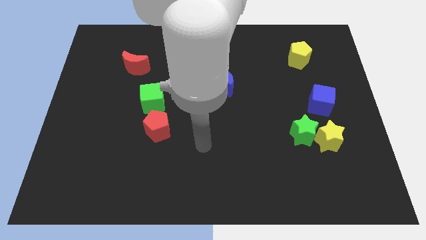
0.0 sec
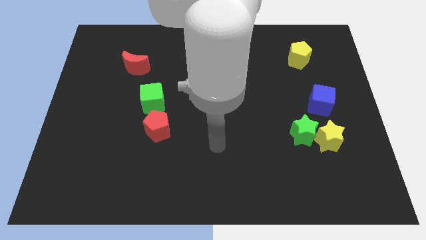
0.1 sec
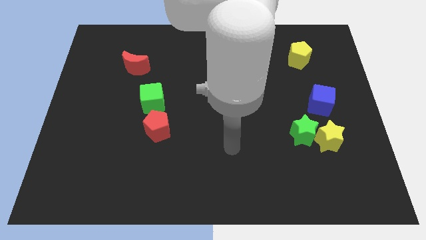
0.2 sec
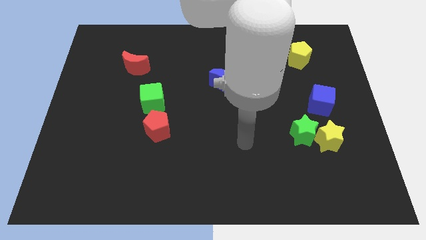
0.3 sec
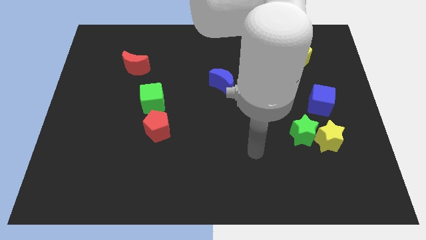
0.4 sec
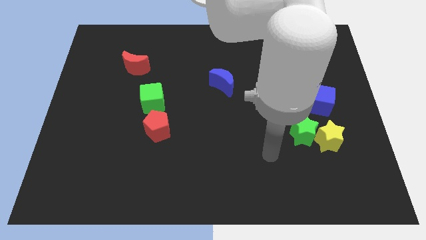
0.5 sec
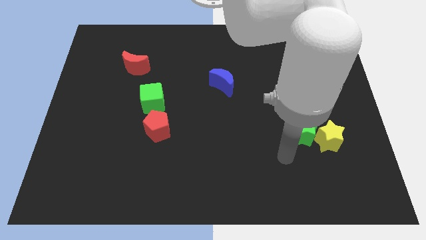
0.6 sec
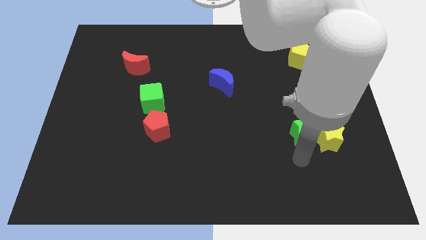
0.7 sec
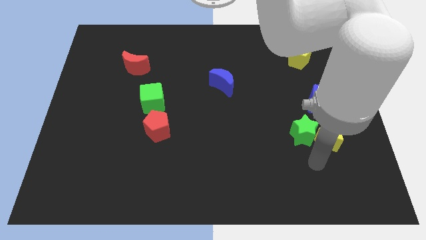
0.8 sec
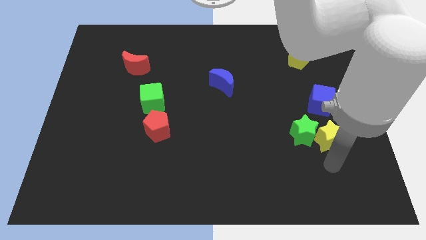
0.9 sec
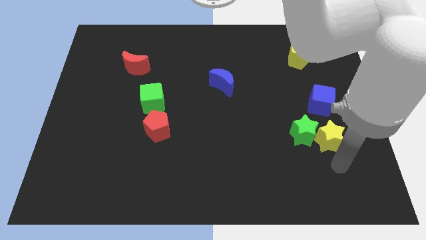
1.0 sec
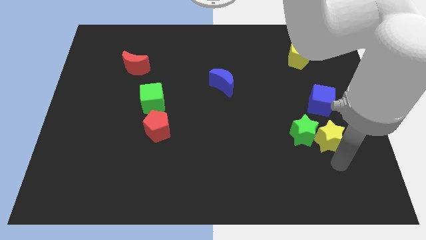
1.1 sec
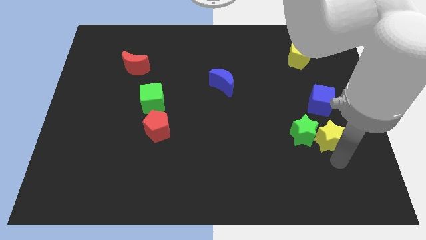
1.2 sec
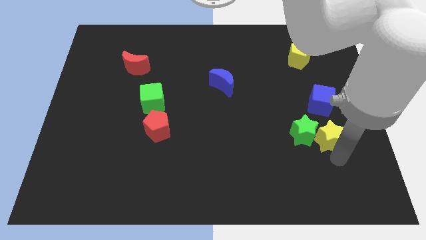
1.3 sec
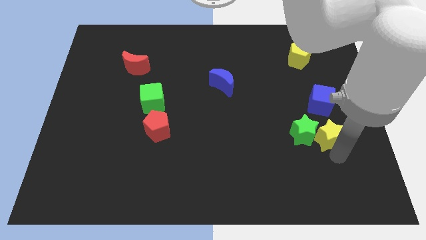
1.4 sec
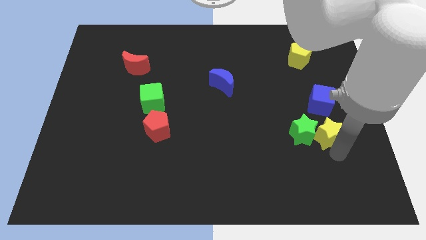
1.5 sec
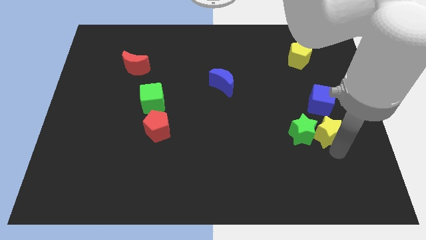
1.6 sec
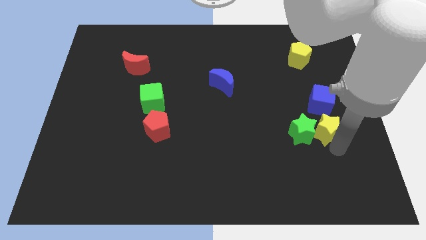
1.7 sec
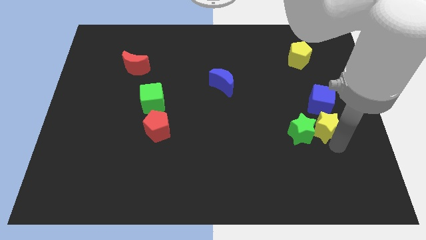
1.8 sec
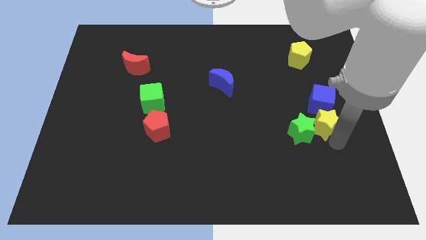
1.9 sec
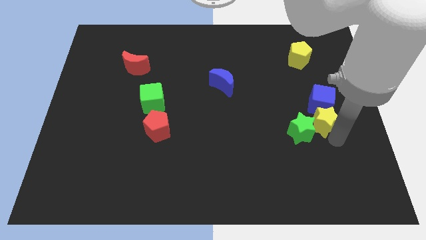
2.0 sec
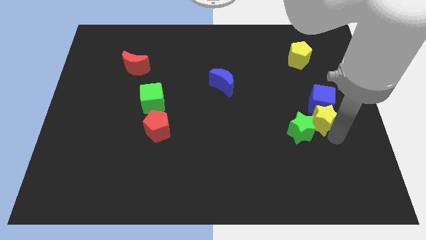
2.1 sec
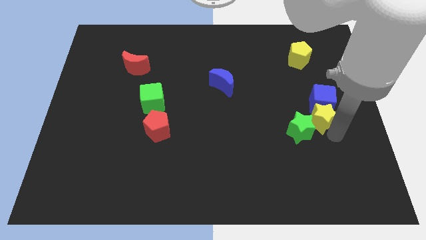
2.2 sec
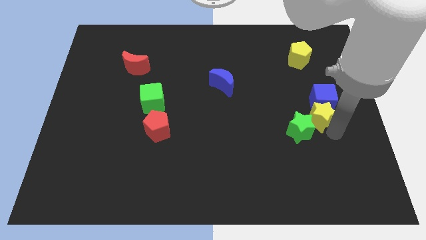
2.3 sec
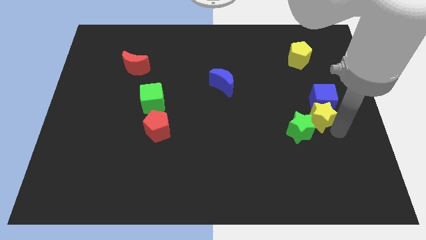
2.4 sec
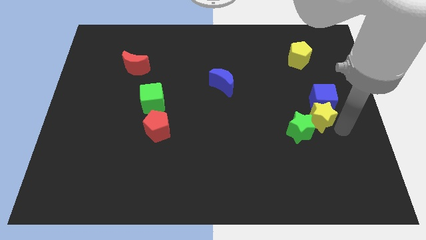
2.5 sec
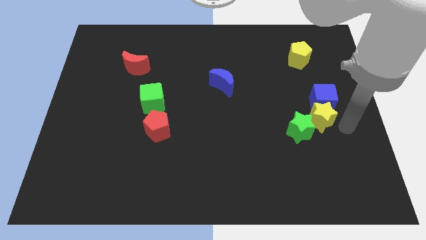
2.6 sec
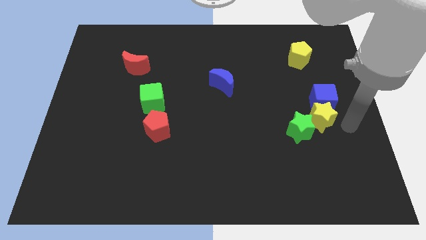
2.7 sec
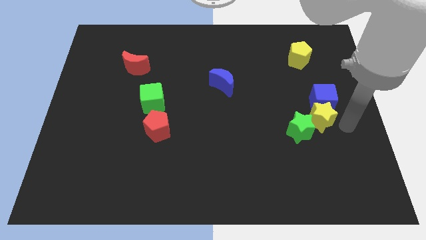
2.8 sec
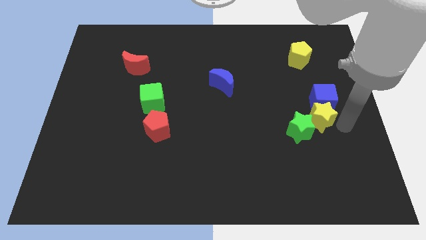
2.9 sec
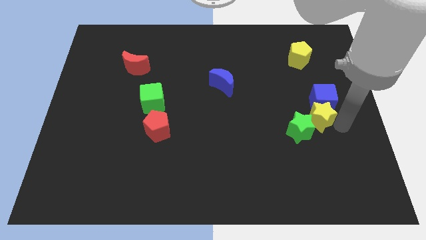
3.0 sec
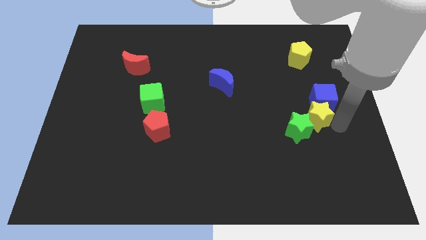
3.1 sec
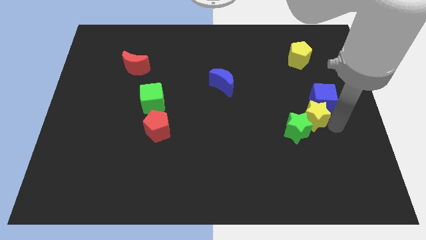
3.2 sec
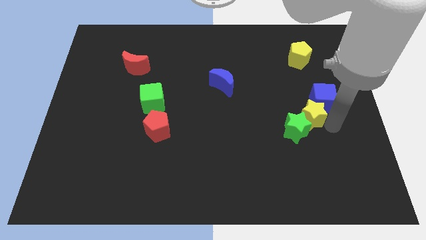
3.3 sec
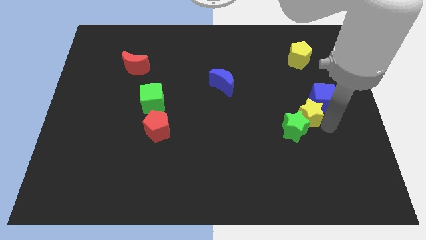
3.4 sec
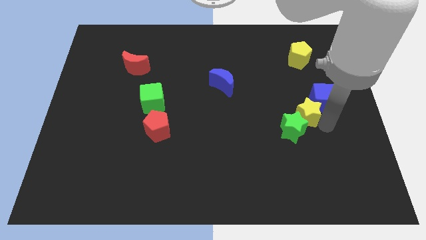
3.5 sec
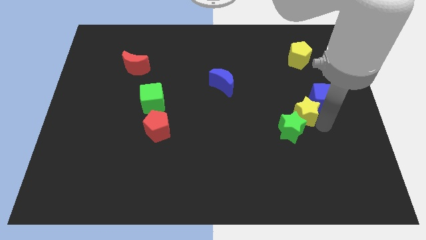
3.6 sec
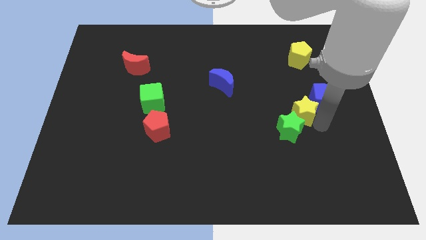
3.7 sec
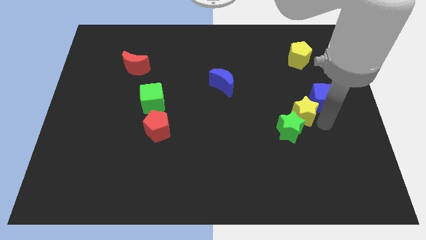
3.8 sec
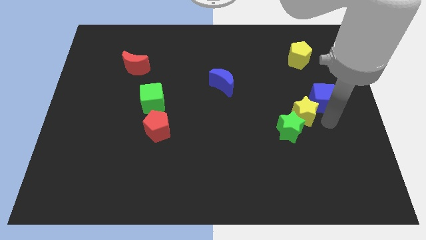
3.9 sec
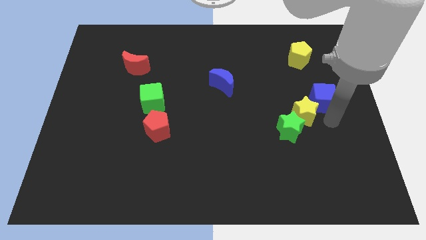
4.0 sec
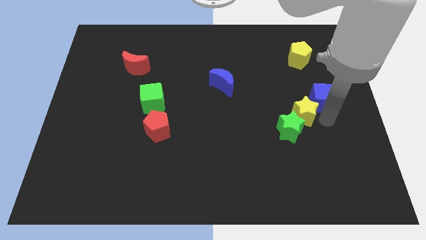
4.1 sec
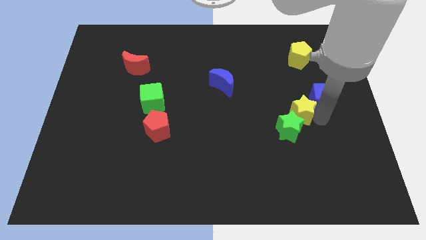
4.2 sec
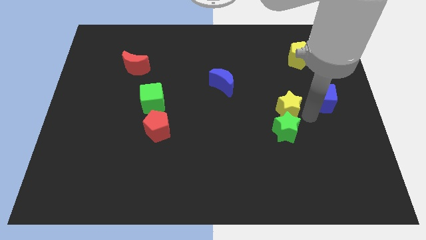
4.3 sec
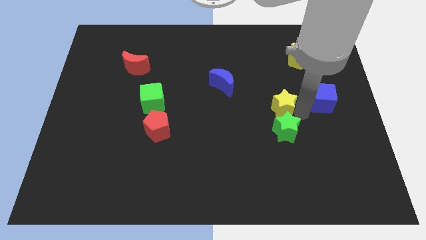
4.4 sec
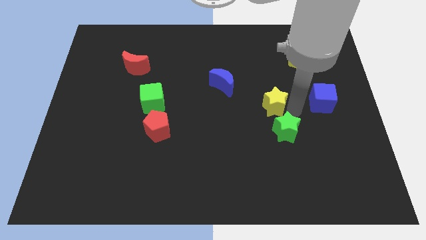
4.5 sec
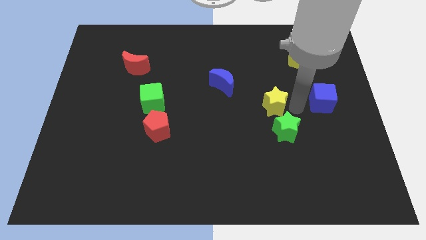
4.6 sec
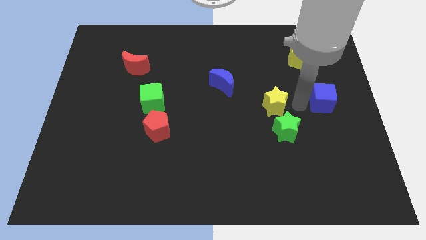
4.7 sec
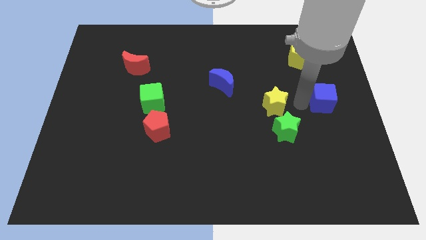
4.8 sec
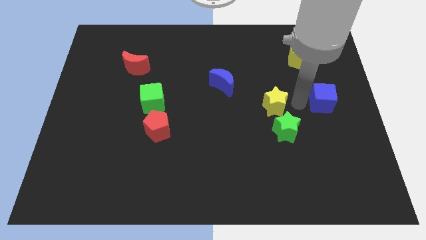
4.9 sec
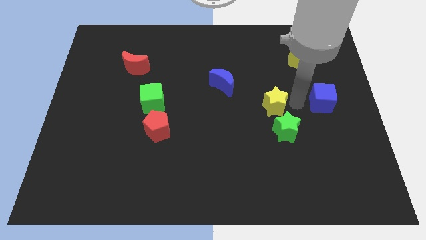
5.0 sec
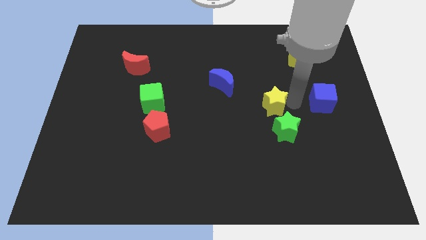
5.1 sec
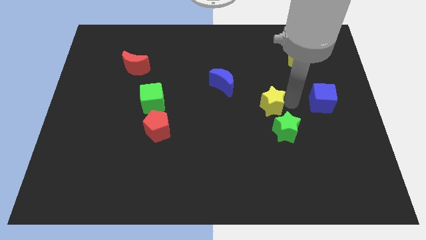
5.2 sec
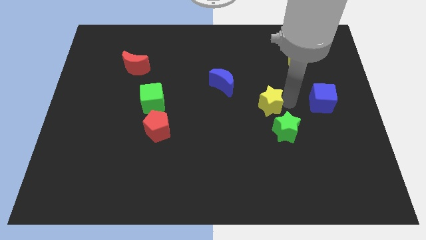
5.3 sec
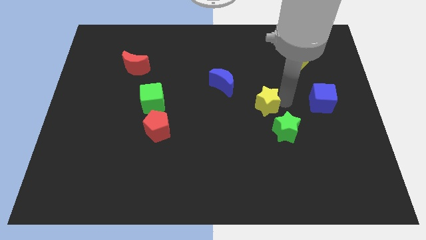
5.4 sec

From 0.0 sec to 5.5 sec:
move the yellow star to the middle

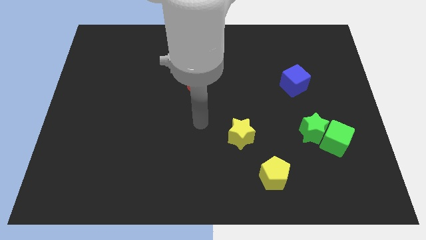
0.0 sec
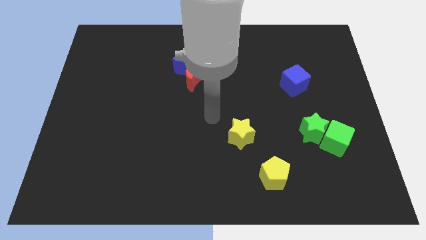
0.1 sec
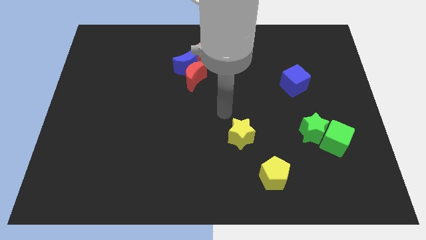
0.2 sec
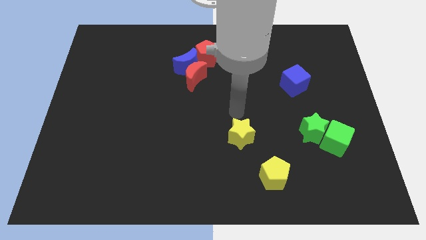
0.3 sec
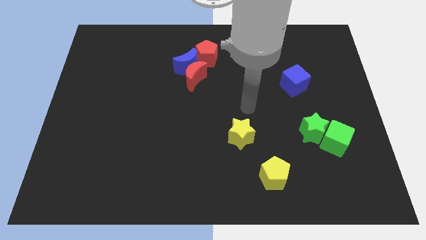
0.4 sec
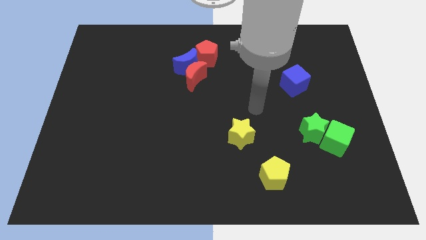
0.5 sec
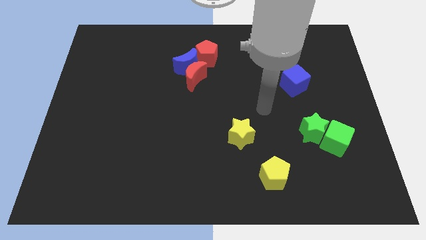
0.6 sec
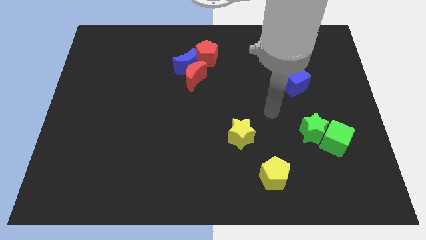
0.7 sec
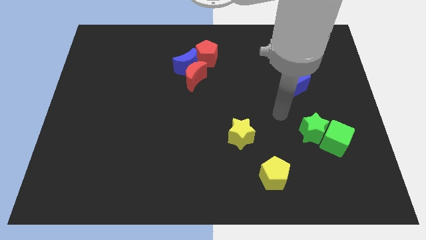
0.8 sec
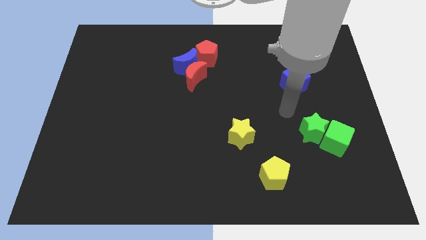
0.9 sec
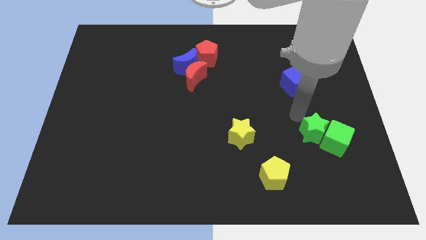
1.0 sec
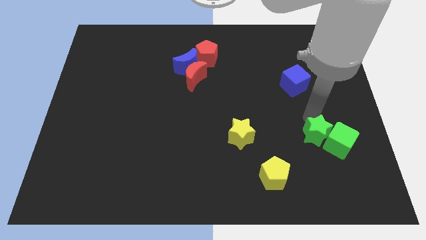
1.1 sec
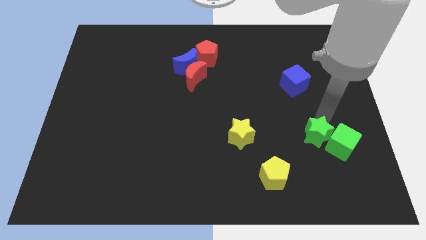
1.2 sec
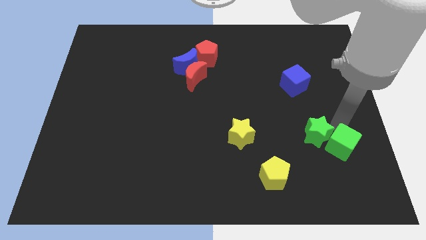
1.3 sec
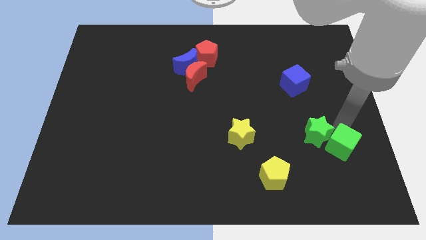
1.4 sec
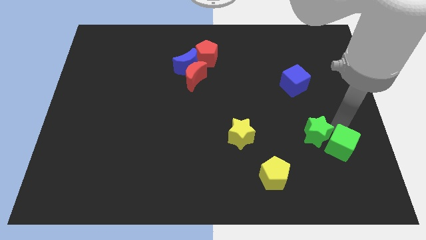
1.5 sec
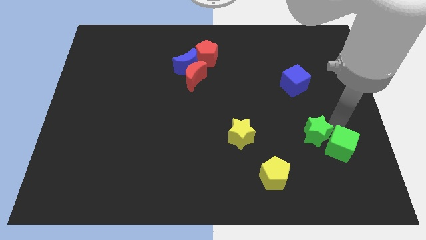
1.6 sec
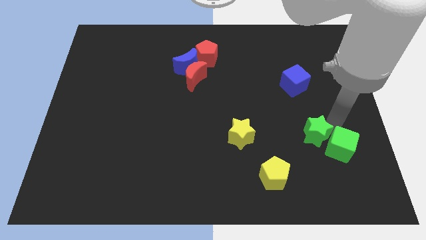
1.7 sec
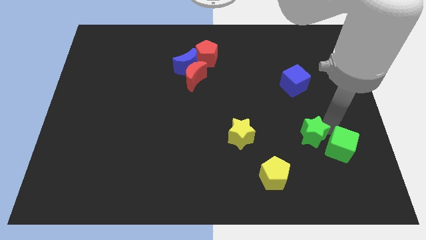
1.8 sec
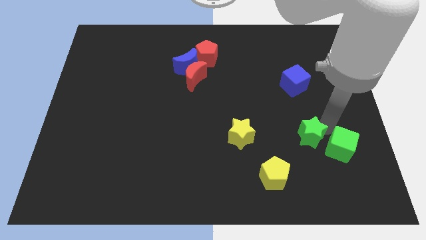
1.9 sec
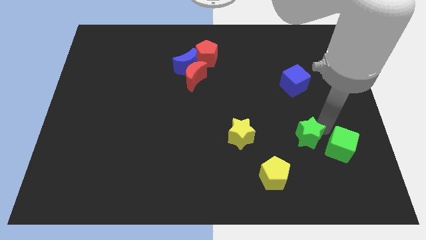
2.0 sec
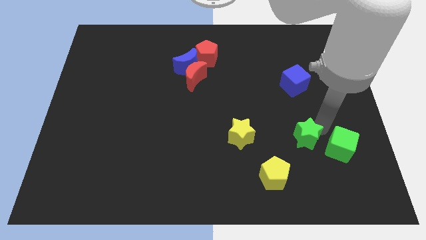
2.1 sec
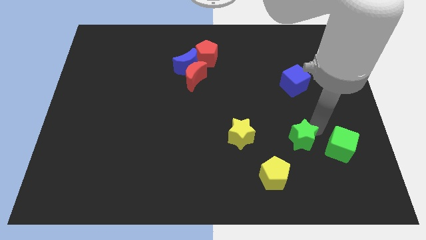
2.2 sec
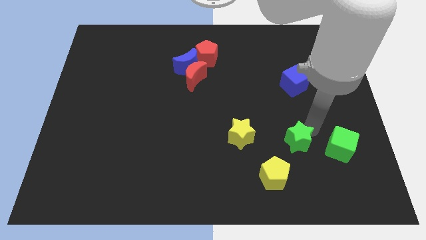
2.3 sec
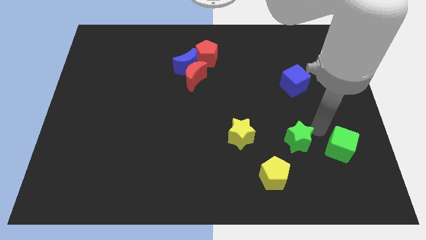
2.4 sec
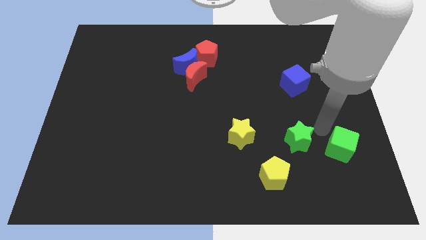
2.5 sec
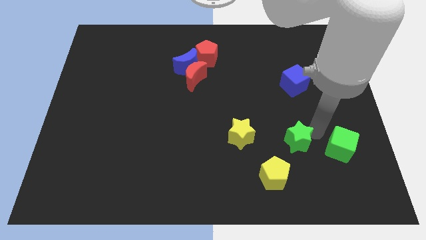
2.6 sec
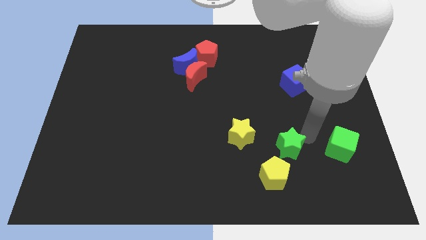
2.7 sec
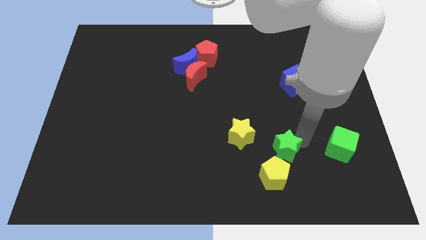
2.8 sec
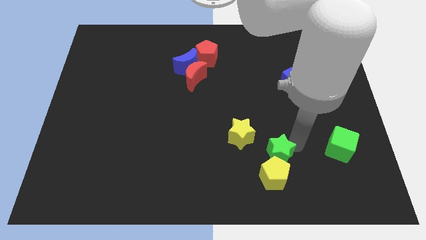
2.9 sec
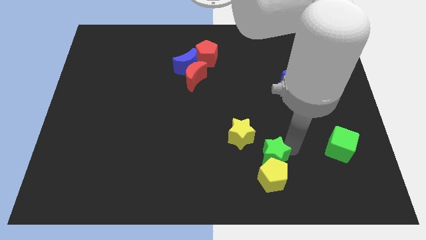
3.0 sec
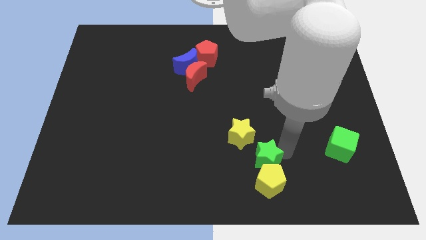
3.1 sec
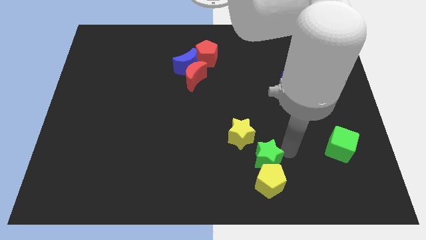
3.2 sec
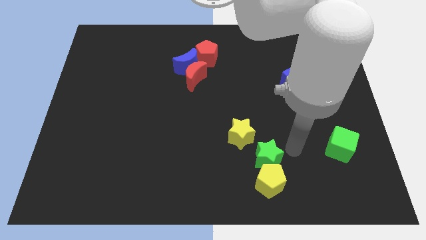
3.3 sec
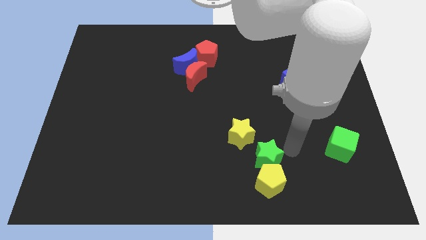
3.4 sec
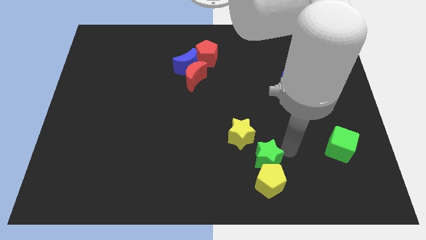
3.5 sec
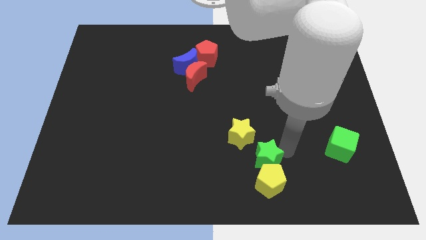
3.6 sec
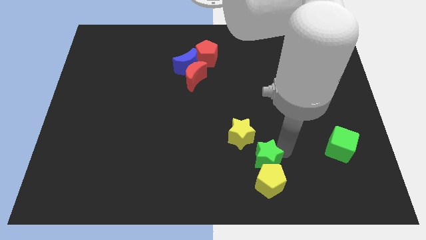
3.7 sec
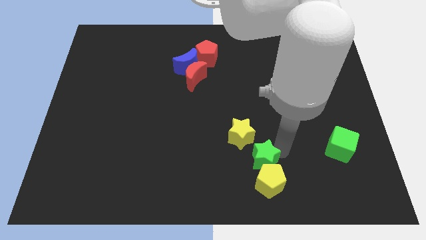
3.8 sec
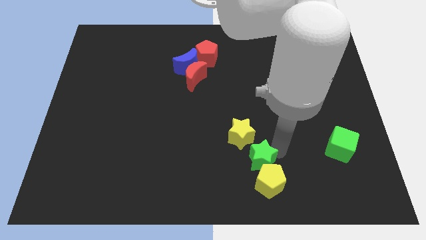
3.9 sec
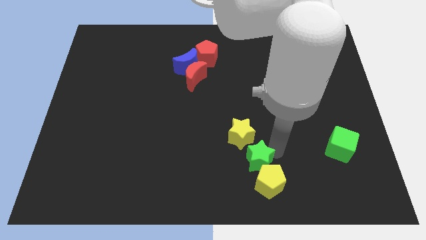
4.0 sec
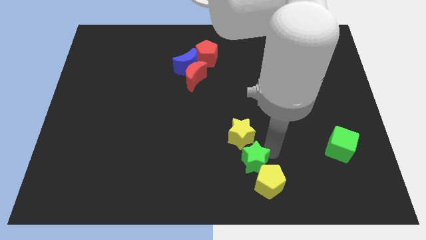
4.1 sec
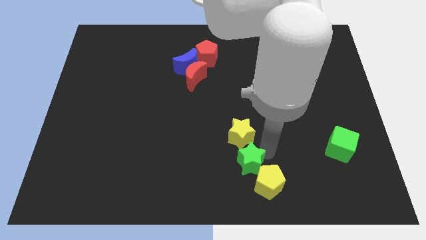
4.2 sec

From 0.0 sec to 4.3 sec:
put the green star to the bottom side
